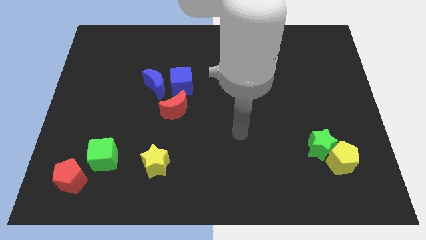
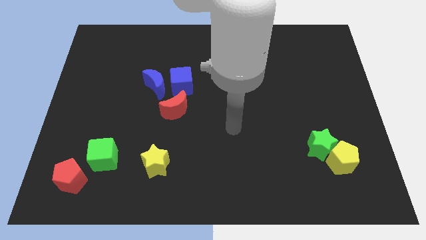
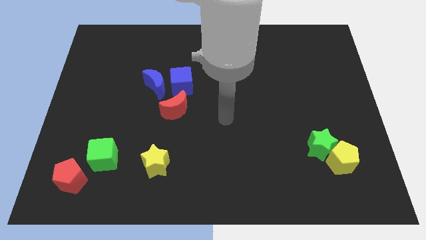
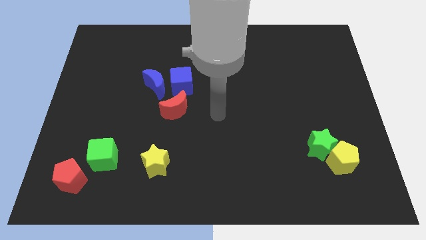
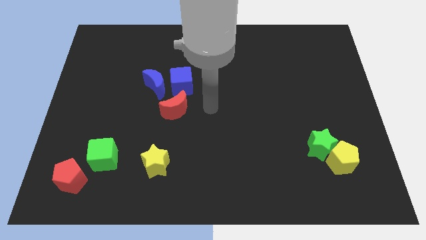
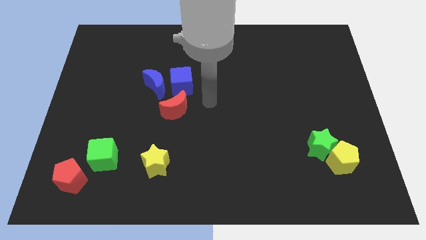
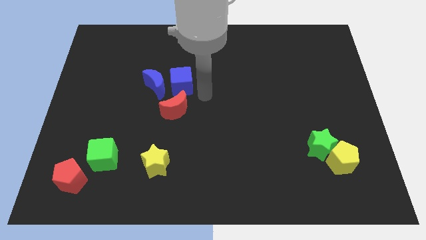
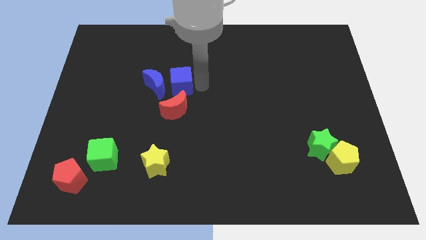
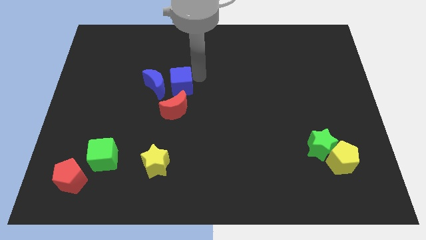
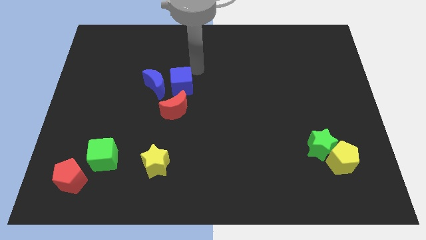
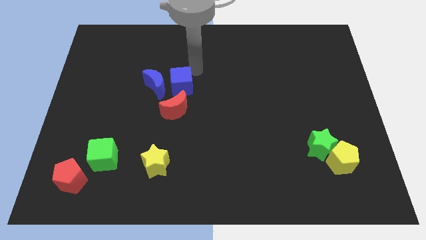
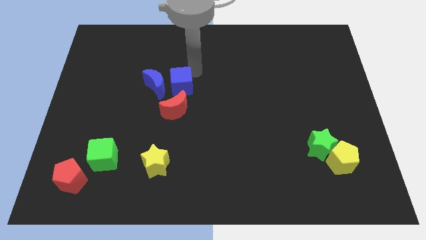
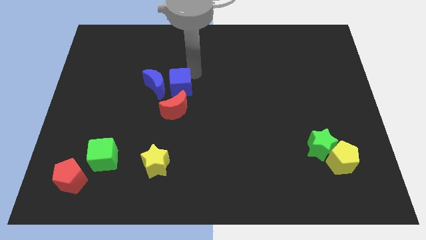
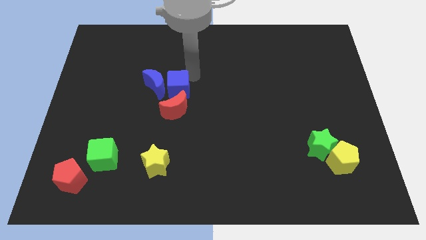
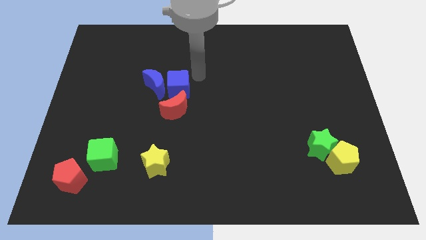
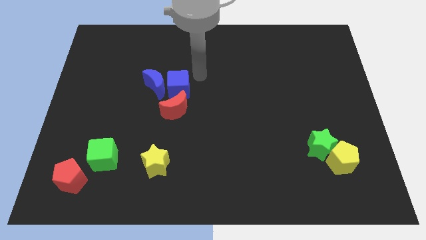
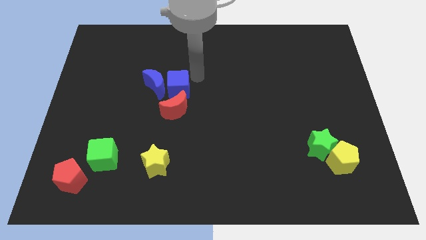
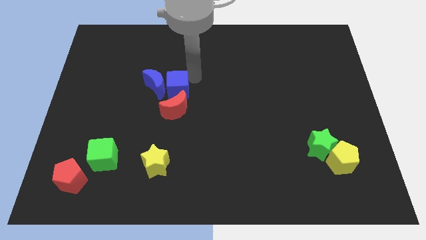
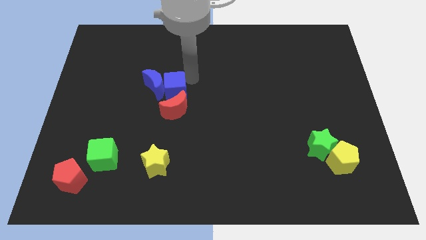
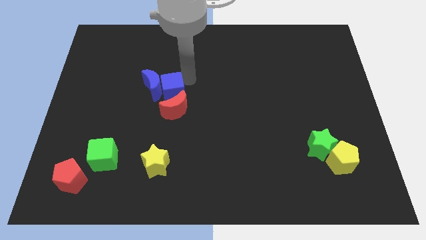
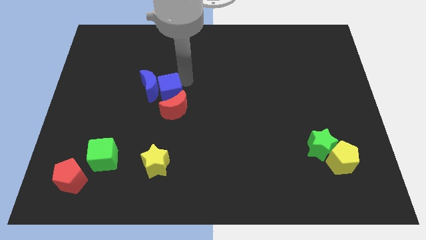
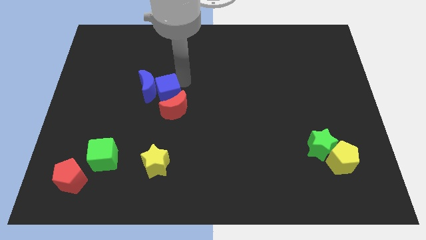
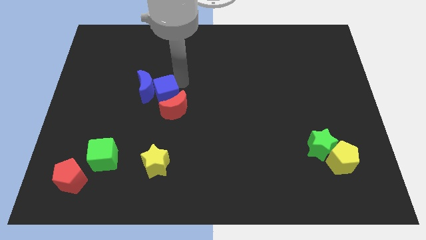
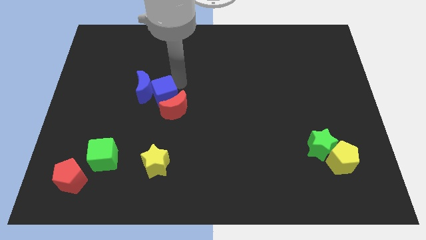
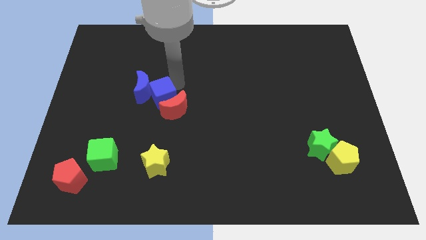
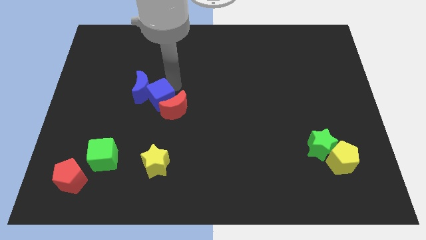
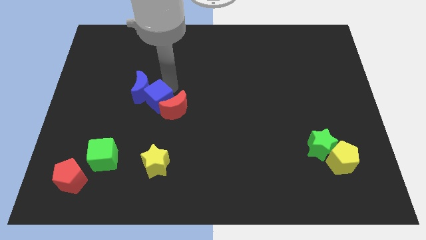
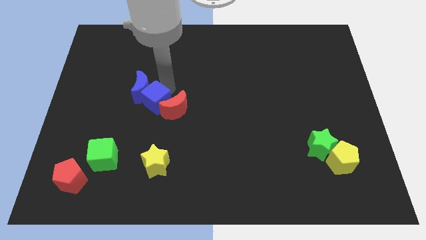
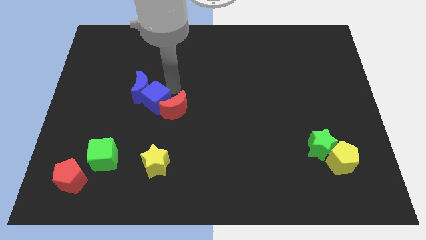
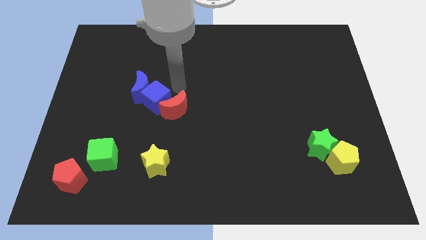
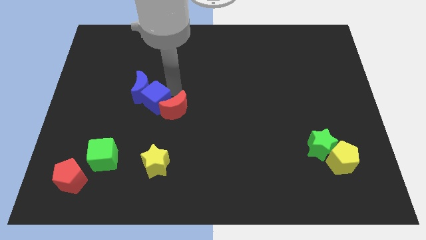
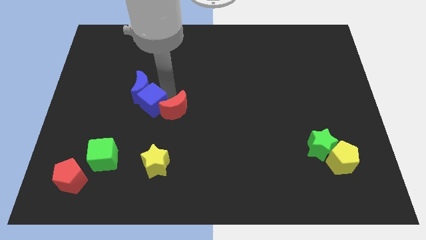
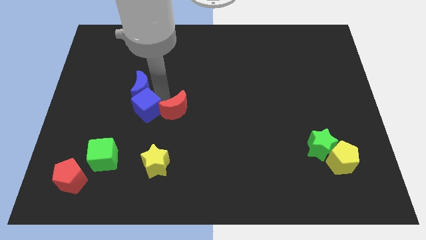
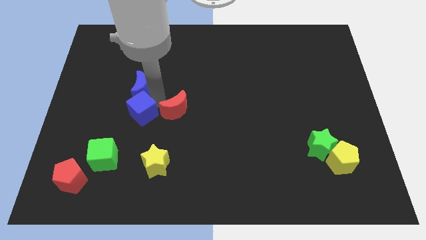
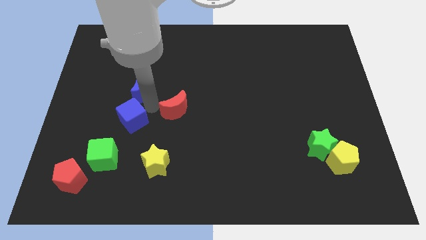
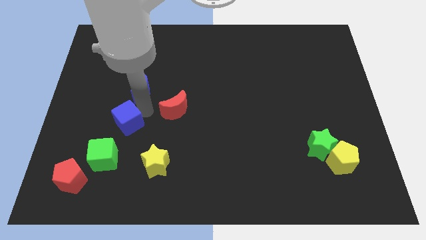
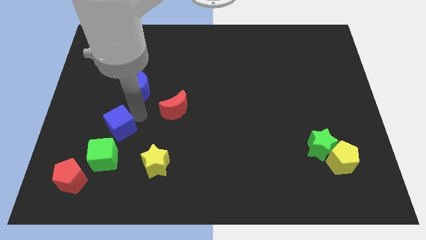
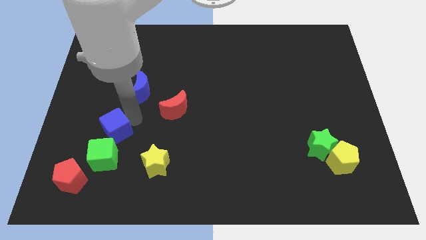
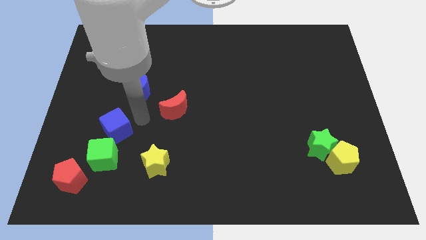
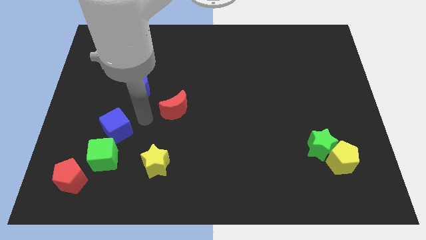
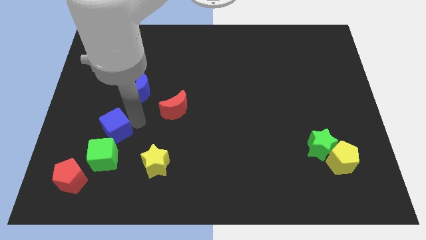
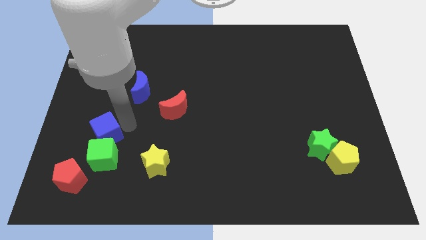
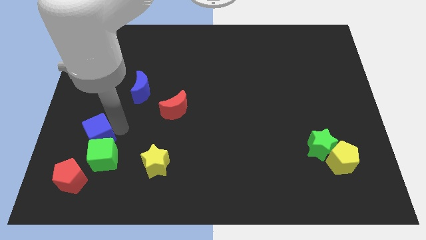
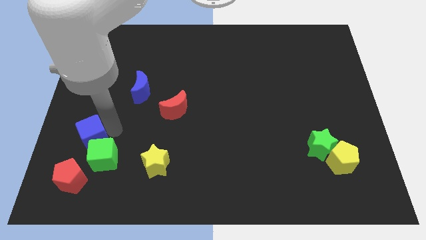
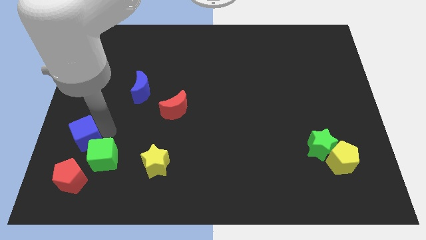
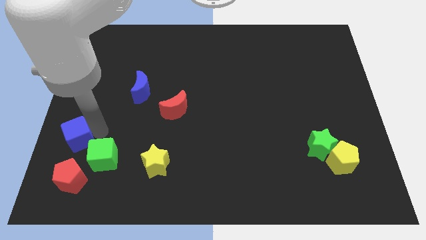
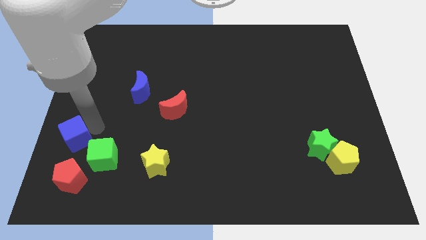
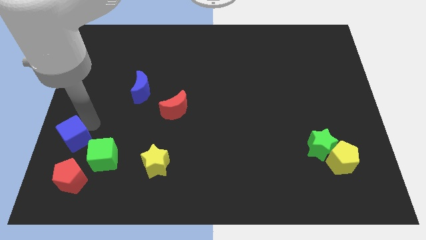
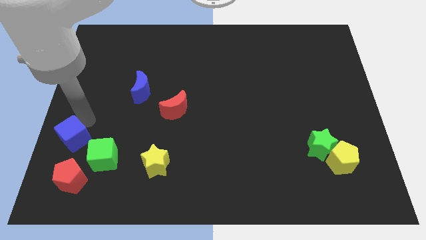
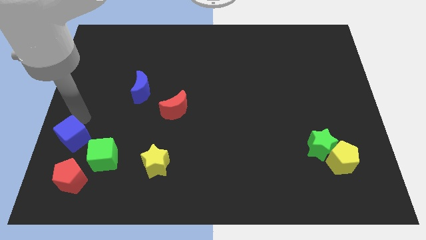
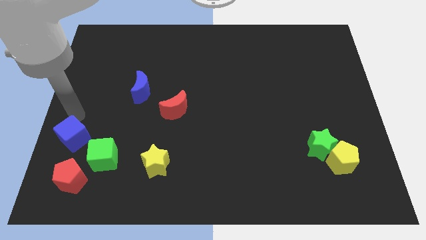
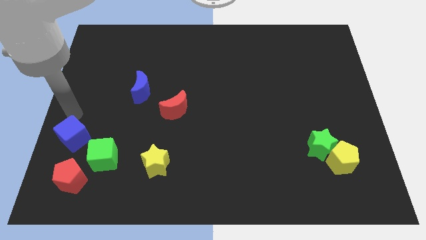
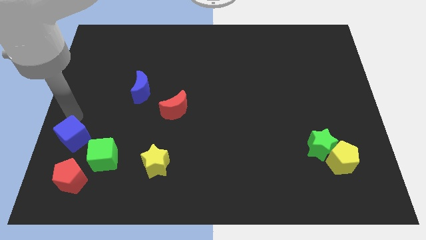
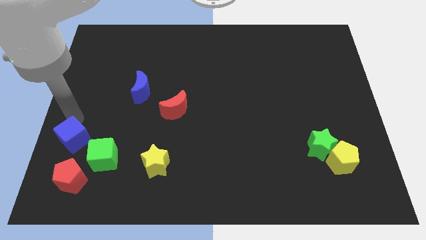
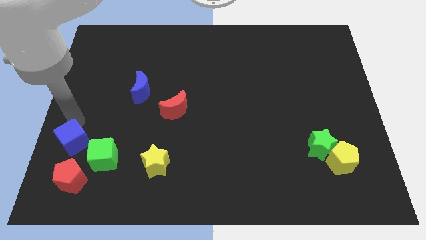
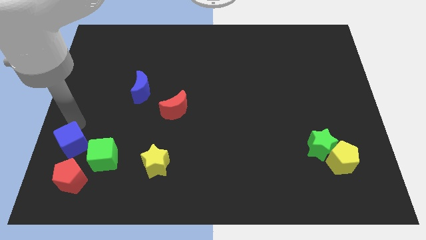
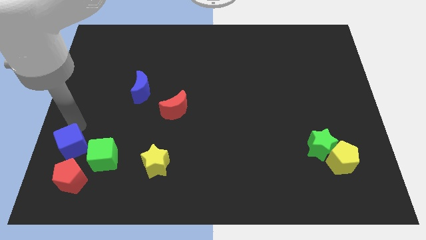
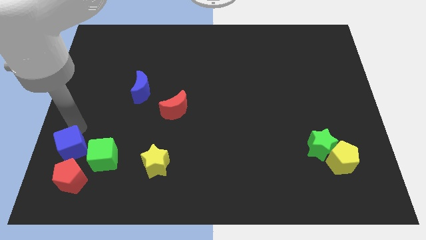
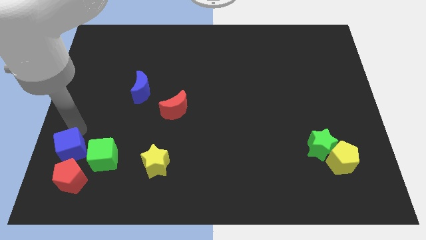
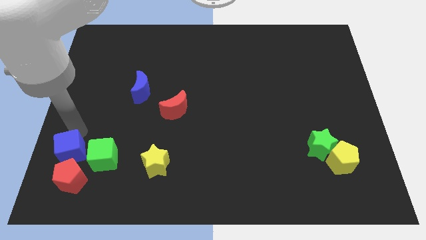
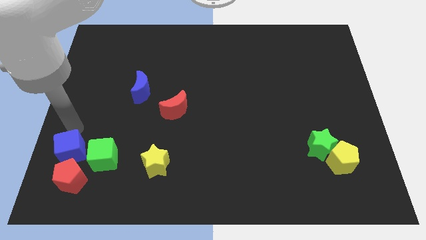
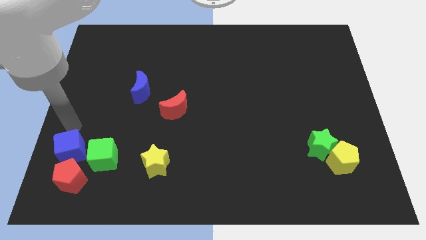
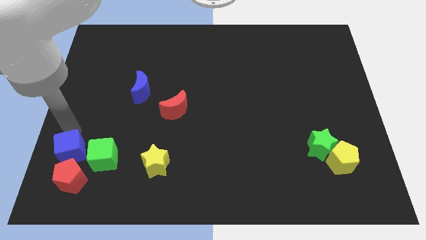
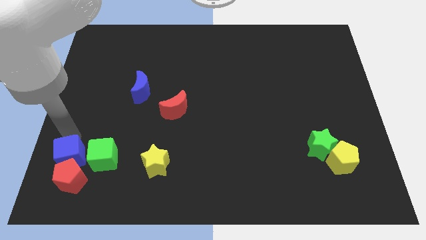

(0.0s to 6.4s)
slide the blue cube next to the red pentagon

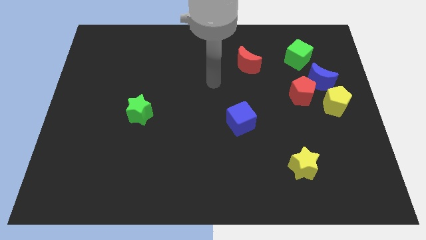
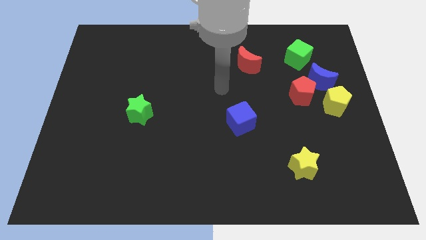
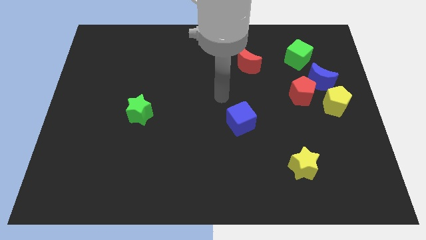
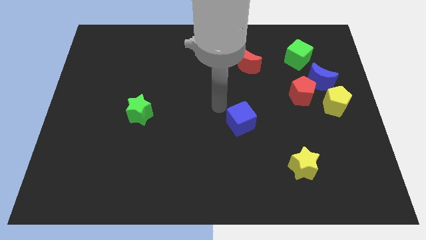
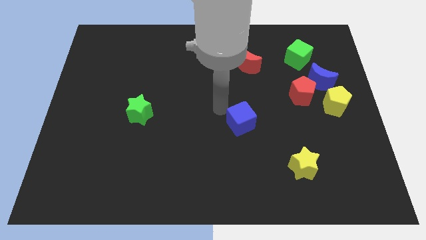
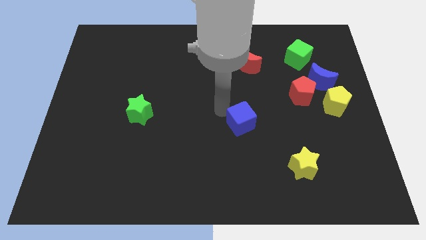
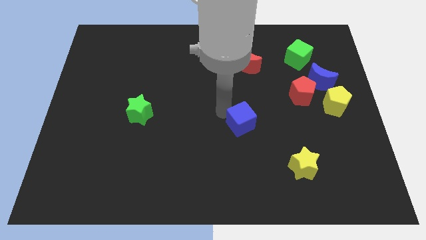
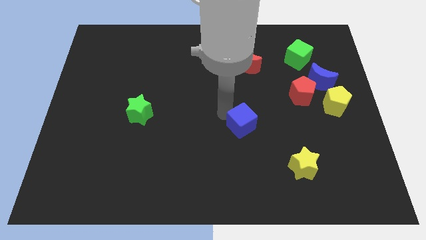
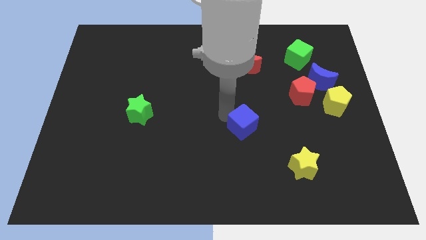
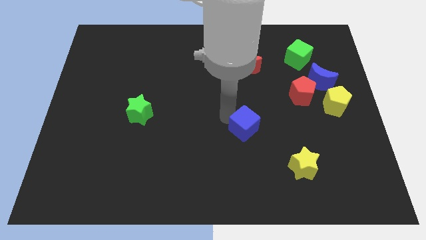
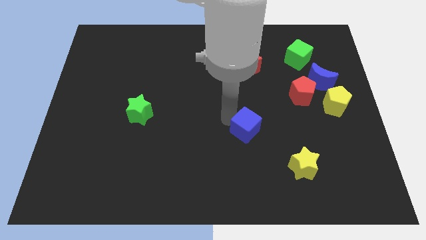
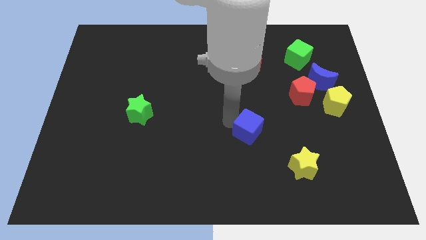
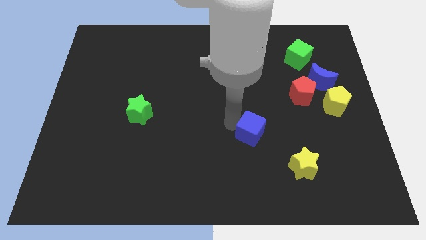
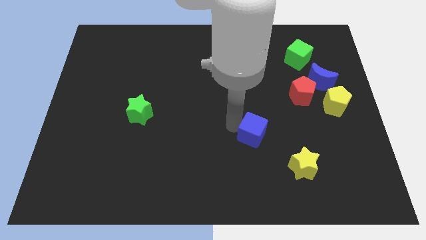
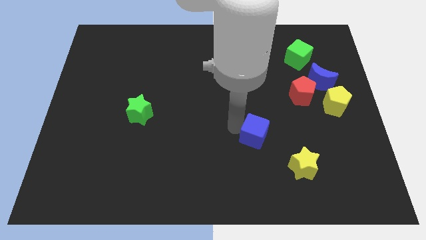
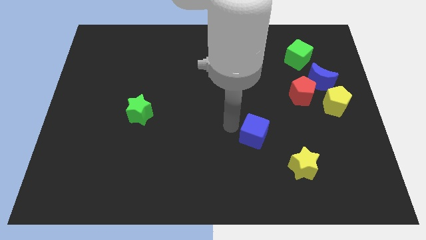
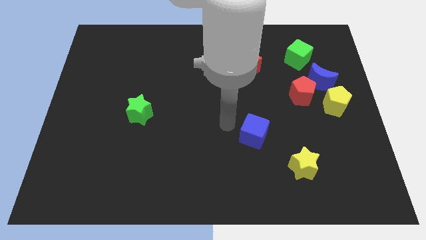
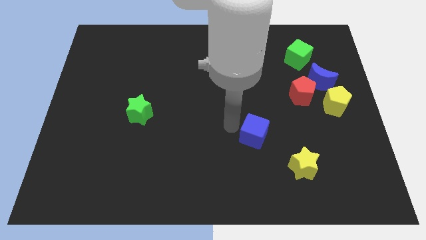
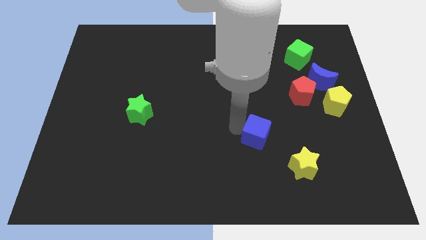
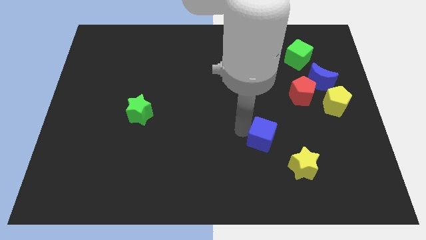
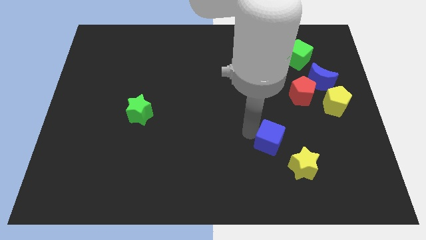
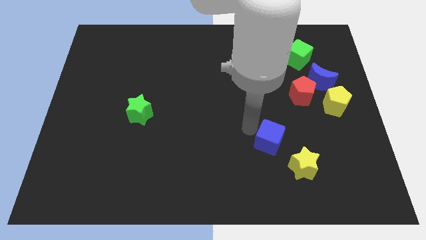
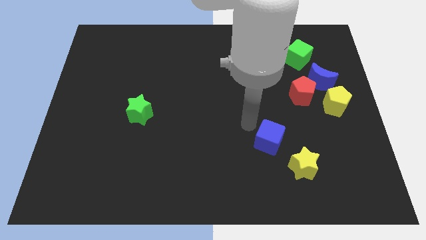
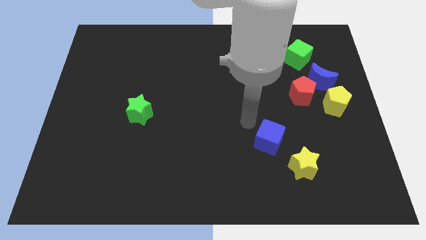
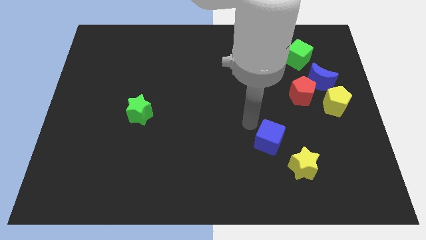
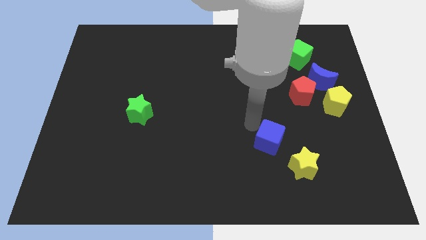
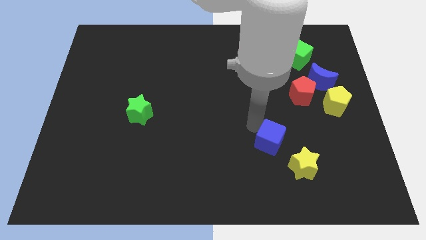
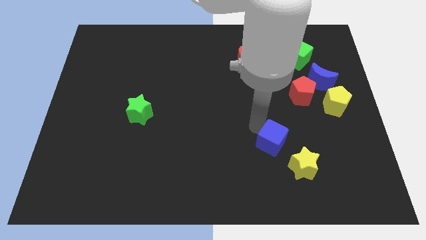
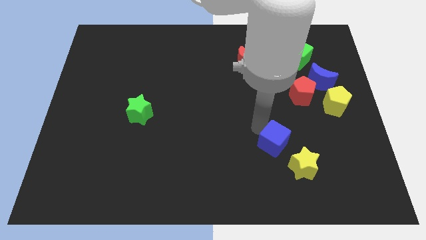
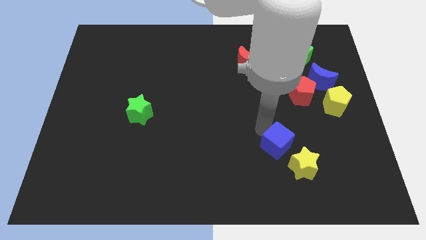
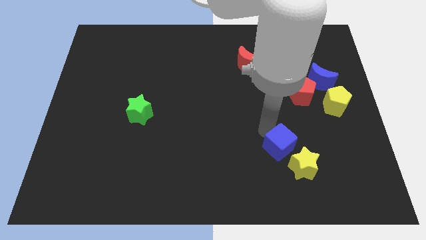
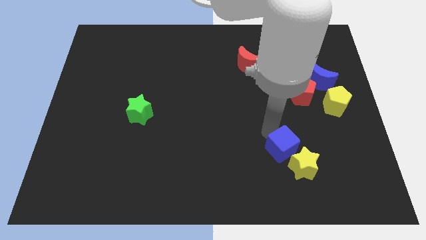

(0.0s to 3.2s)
move the blue cube close to the yellow star
